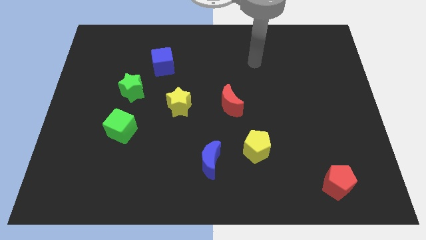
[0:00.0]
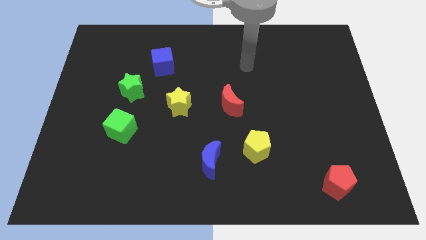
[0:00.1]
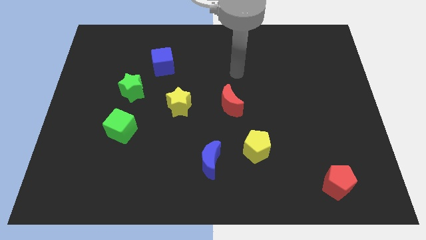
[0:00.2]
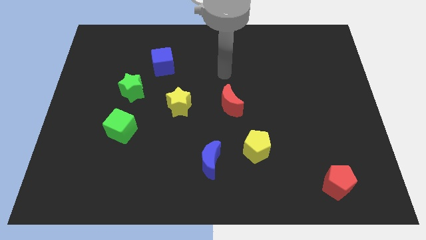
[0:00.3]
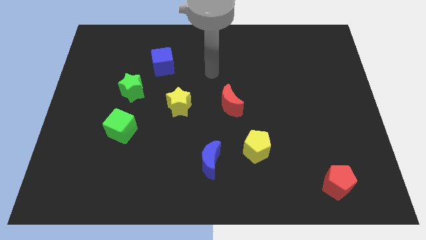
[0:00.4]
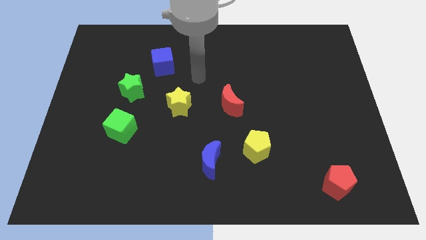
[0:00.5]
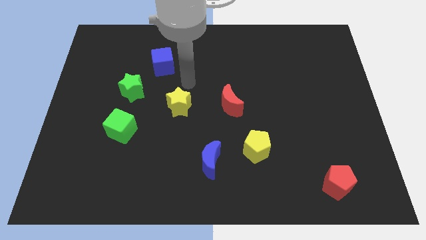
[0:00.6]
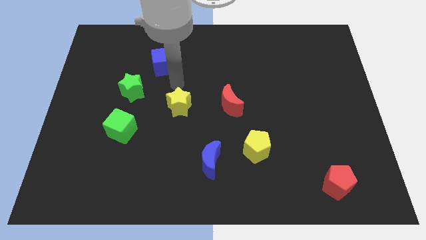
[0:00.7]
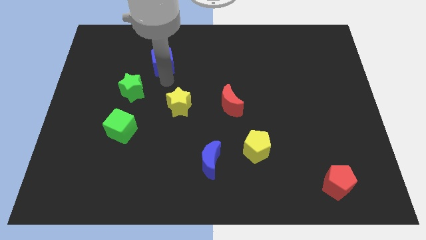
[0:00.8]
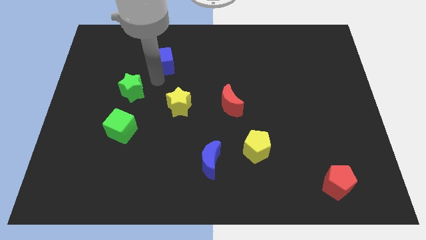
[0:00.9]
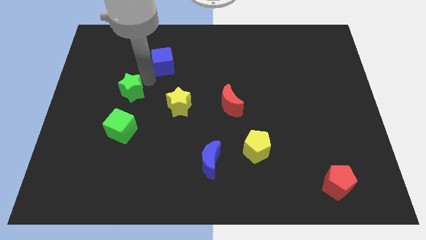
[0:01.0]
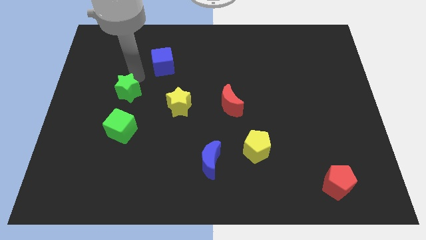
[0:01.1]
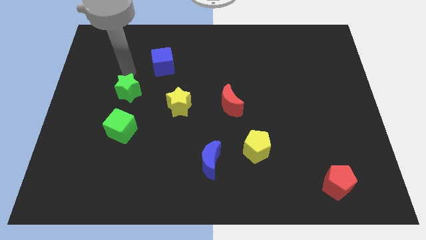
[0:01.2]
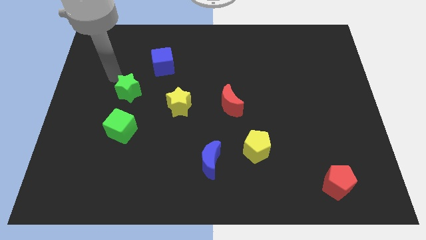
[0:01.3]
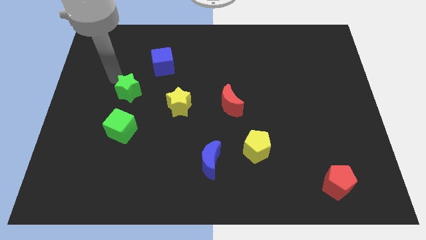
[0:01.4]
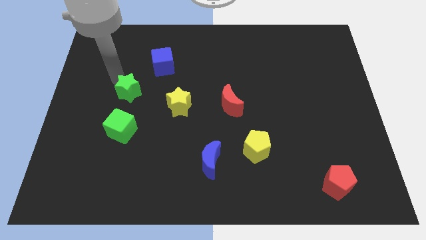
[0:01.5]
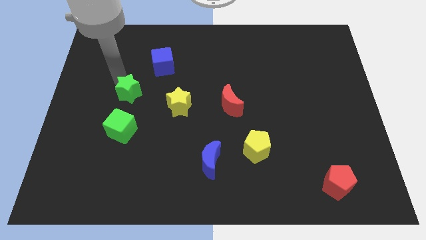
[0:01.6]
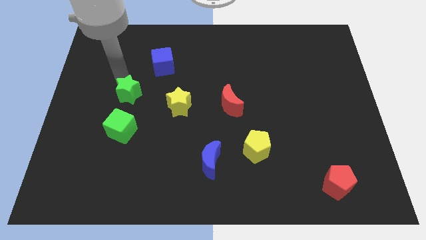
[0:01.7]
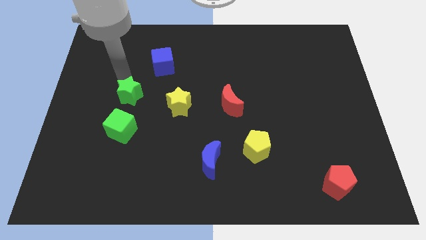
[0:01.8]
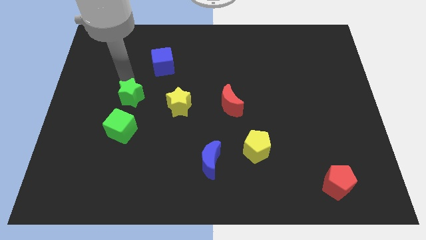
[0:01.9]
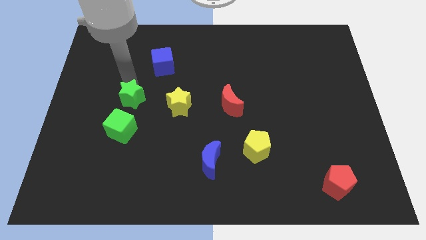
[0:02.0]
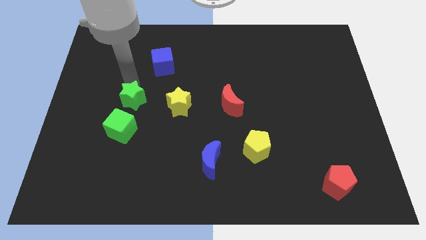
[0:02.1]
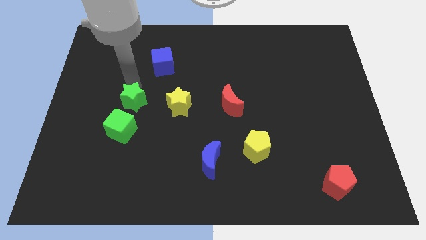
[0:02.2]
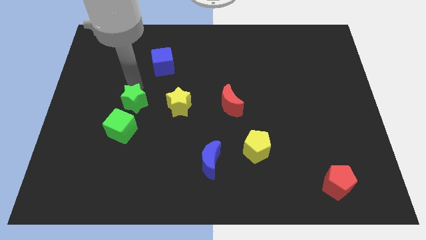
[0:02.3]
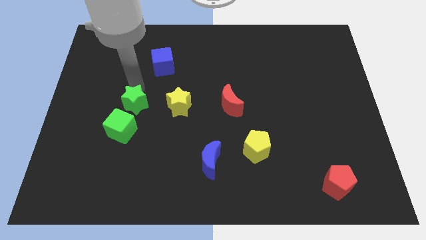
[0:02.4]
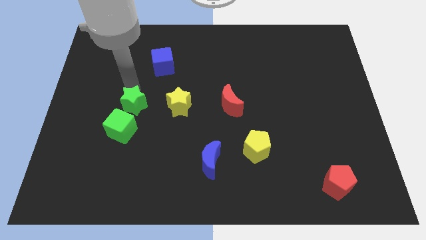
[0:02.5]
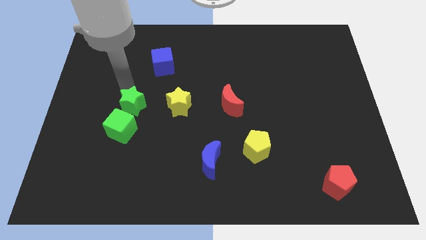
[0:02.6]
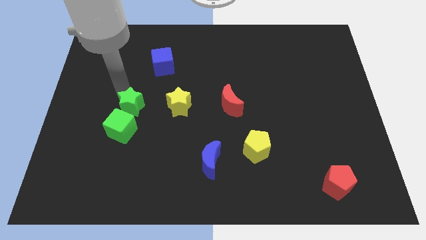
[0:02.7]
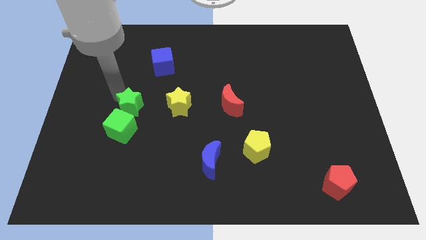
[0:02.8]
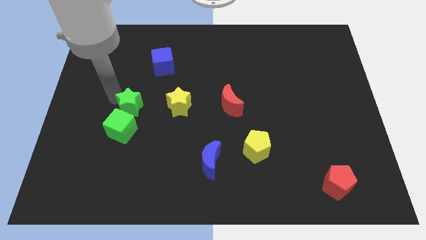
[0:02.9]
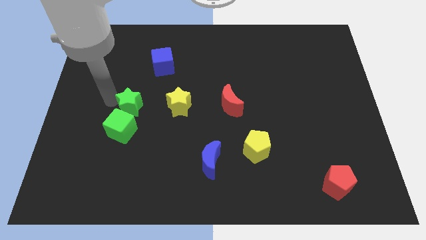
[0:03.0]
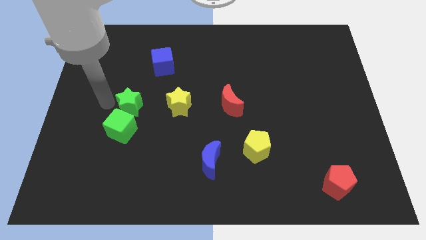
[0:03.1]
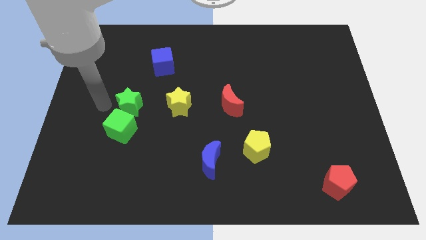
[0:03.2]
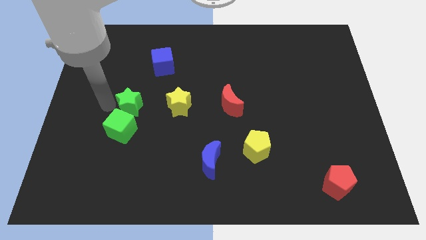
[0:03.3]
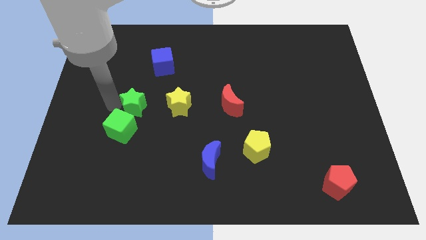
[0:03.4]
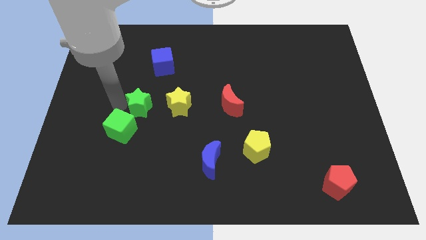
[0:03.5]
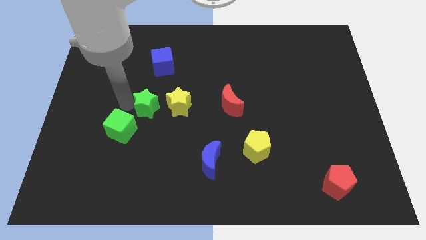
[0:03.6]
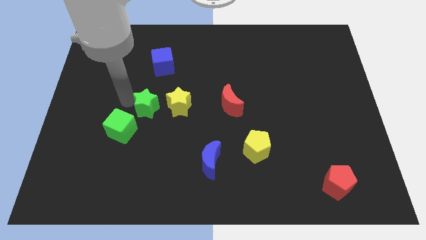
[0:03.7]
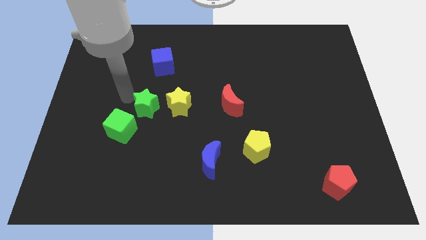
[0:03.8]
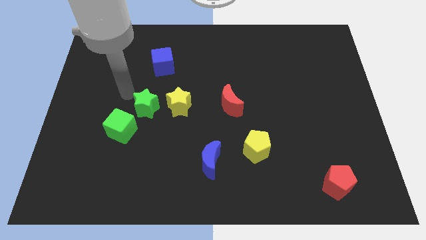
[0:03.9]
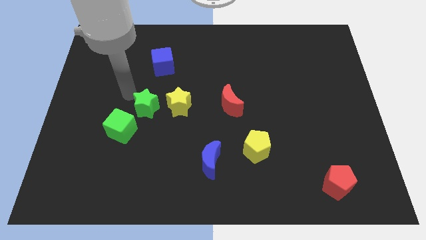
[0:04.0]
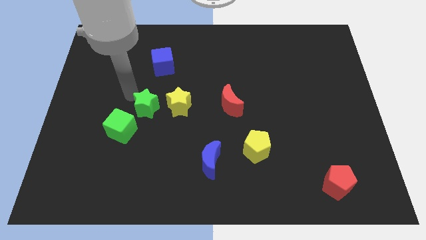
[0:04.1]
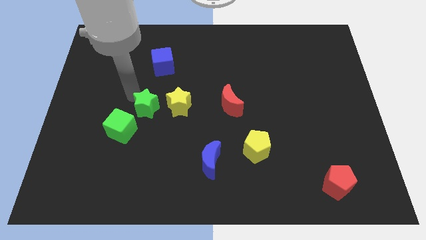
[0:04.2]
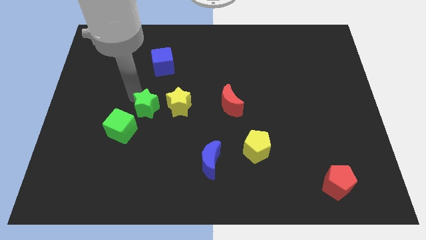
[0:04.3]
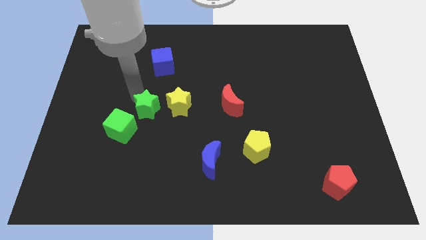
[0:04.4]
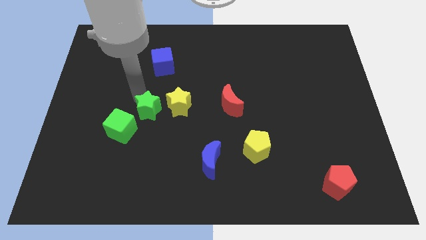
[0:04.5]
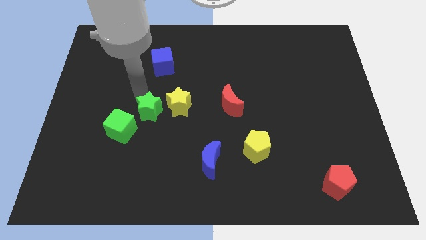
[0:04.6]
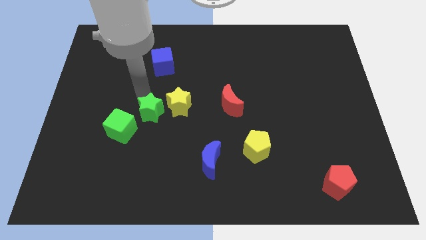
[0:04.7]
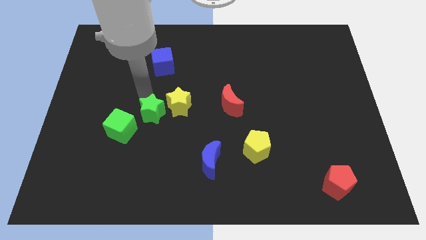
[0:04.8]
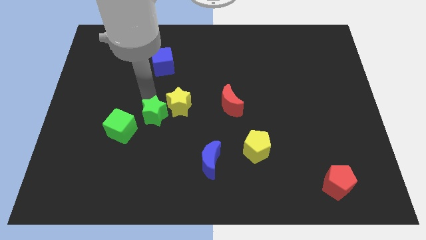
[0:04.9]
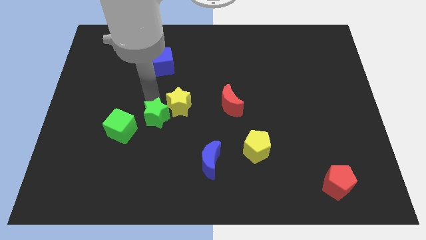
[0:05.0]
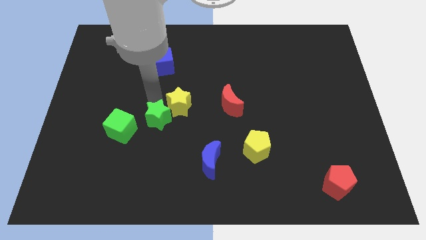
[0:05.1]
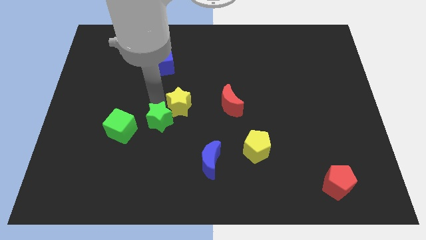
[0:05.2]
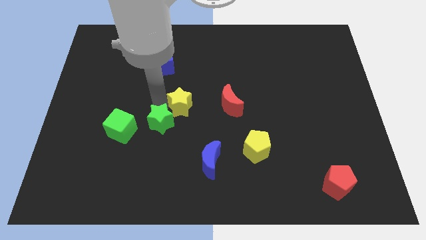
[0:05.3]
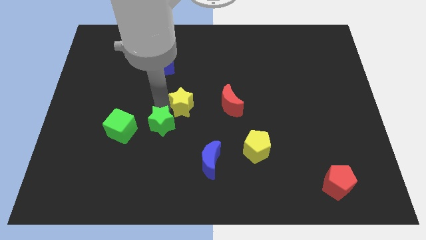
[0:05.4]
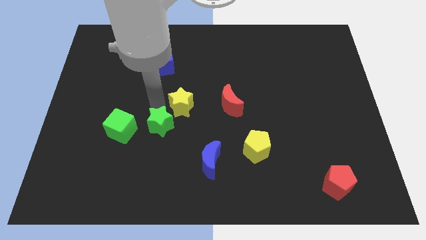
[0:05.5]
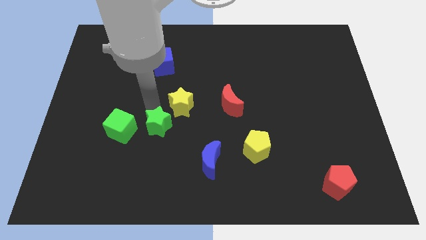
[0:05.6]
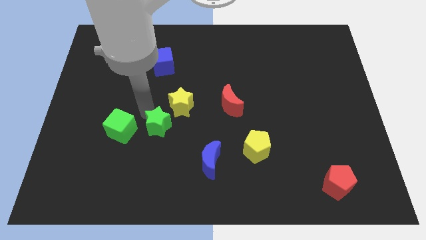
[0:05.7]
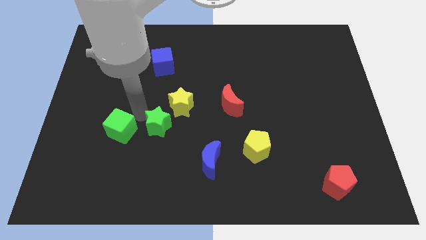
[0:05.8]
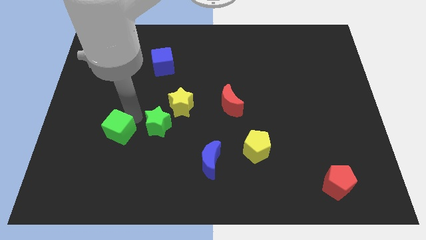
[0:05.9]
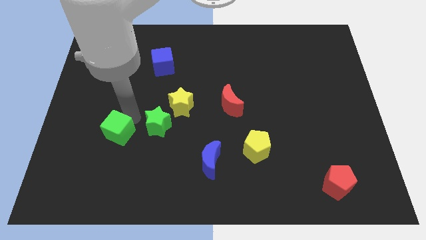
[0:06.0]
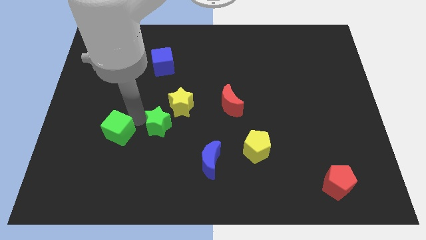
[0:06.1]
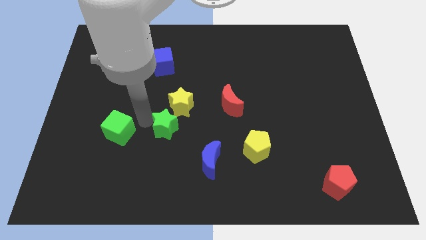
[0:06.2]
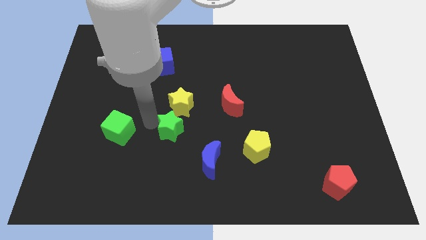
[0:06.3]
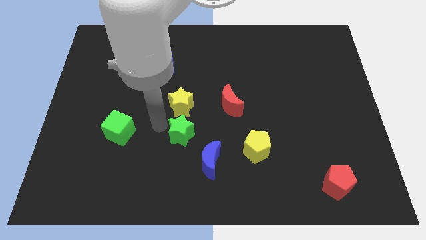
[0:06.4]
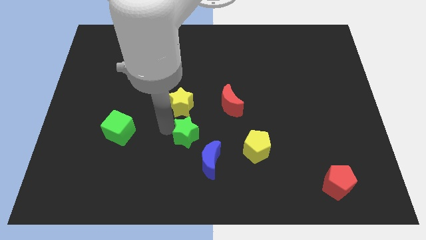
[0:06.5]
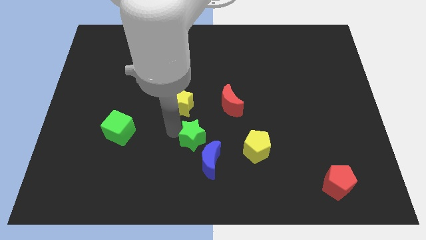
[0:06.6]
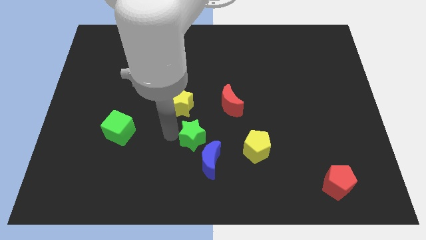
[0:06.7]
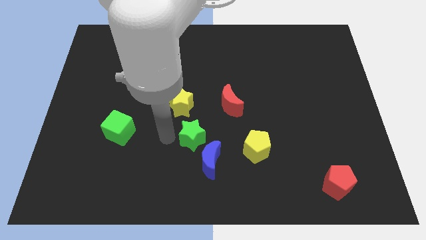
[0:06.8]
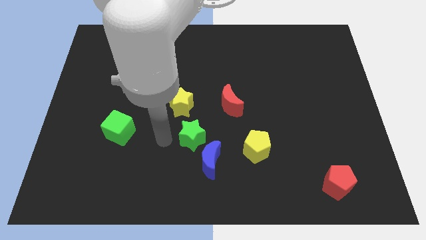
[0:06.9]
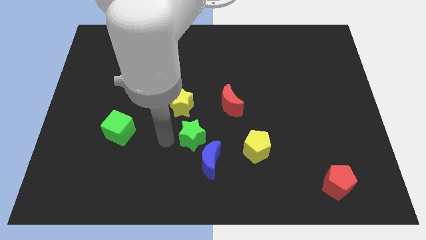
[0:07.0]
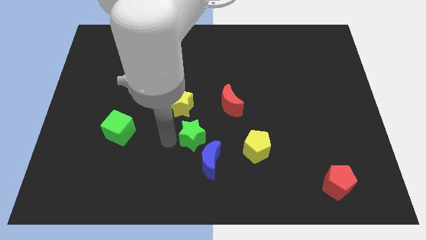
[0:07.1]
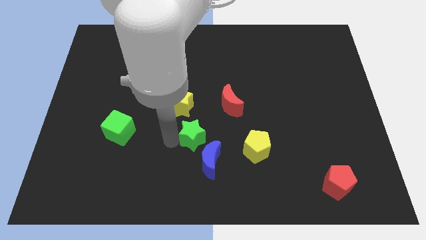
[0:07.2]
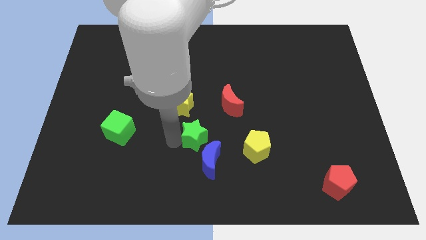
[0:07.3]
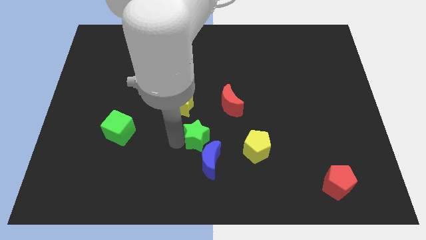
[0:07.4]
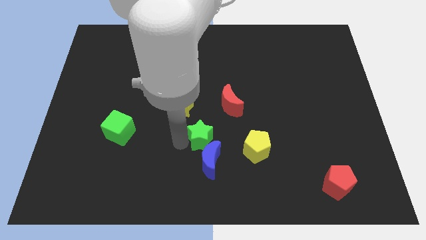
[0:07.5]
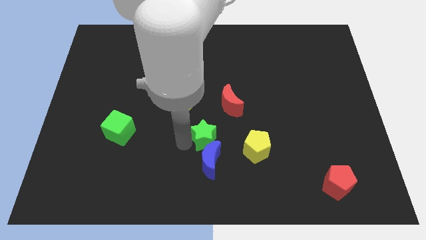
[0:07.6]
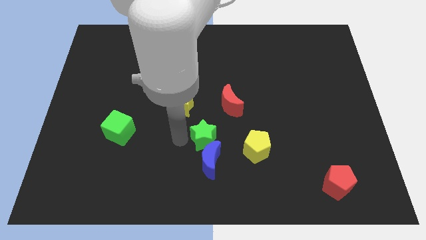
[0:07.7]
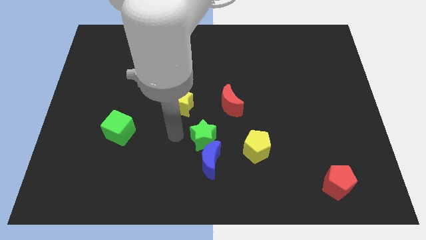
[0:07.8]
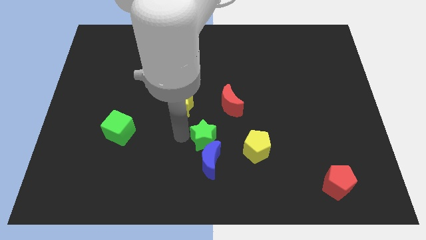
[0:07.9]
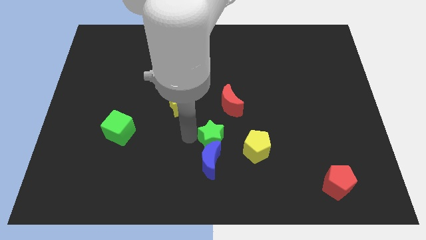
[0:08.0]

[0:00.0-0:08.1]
push the green star to the top right of the blue moon
